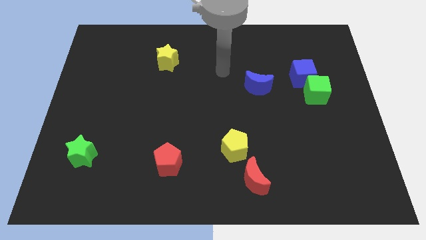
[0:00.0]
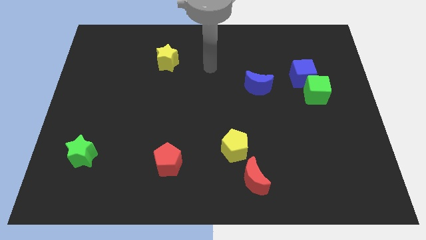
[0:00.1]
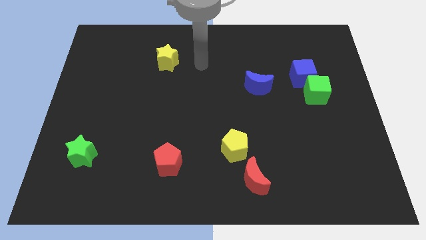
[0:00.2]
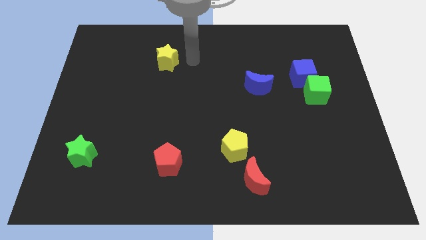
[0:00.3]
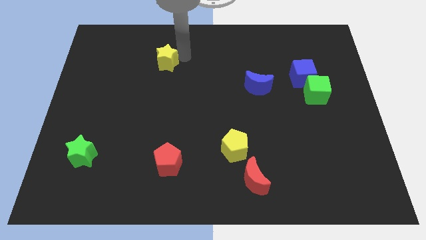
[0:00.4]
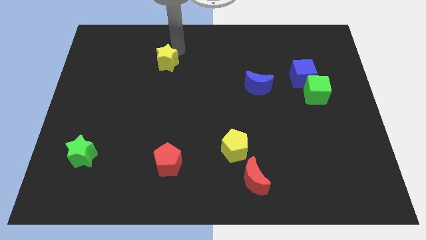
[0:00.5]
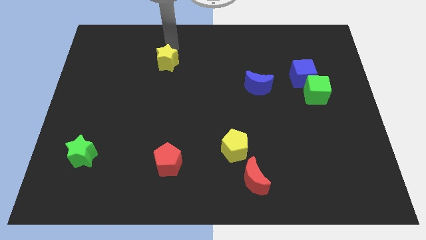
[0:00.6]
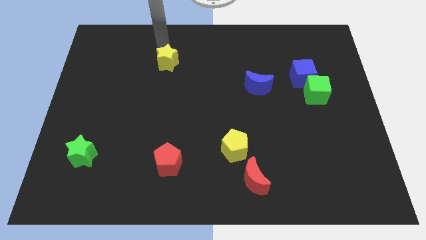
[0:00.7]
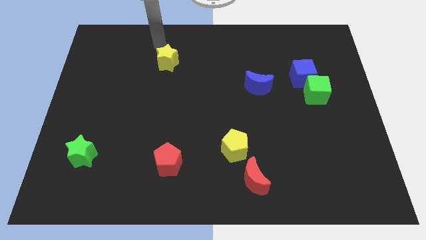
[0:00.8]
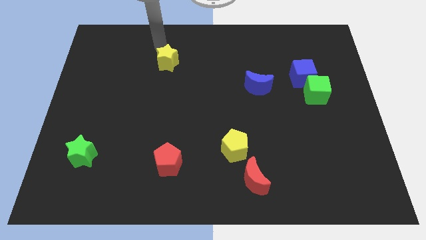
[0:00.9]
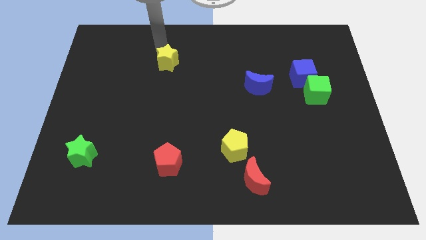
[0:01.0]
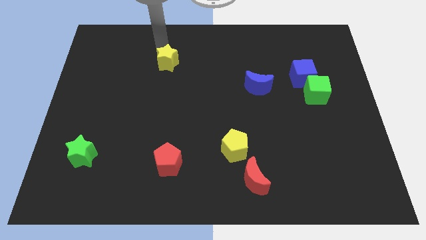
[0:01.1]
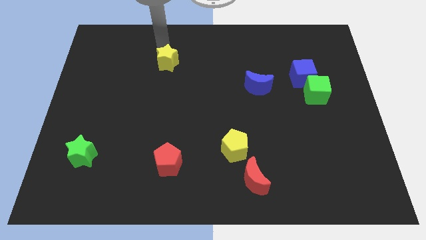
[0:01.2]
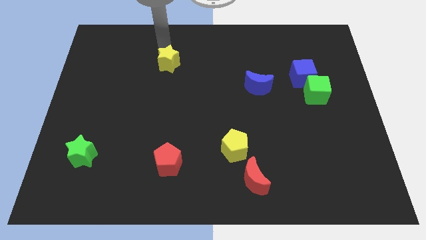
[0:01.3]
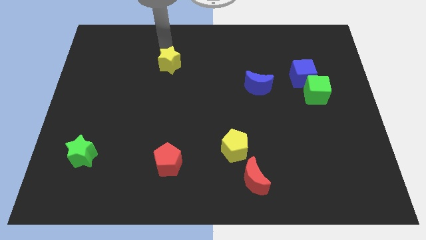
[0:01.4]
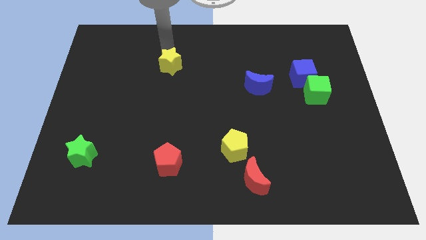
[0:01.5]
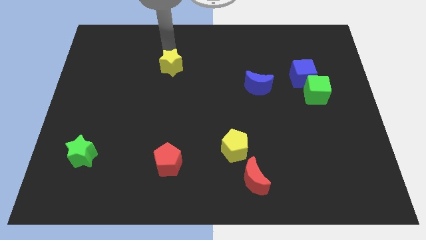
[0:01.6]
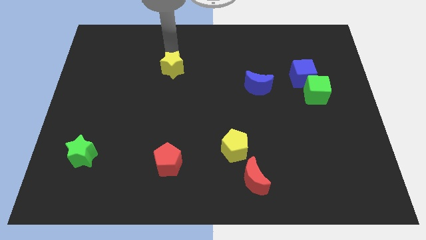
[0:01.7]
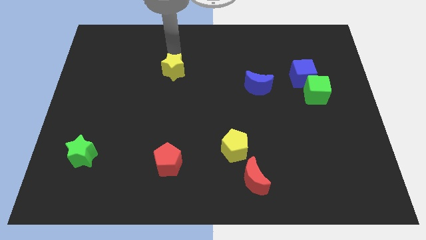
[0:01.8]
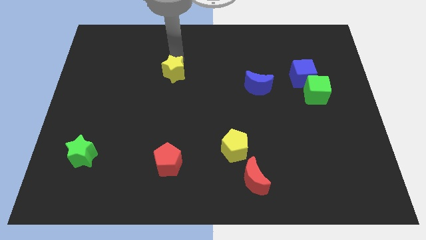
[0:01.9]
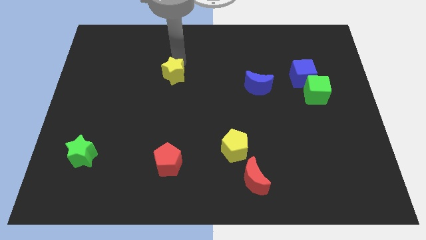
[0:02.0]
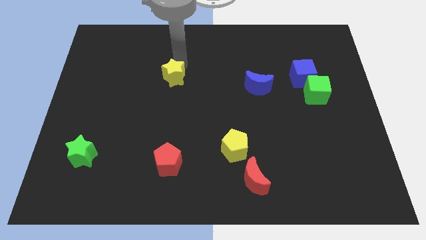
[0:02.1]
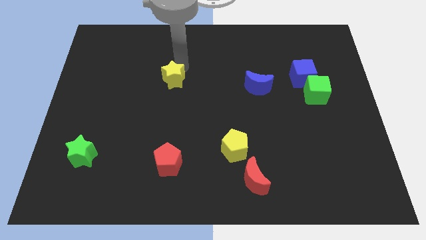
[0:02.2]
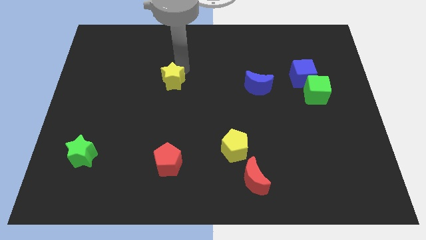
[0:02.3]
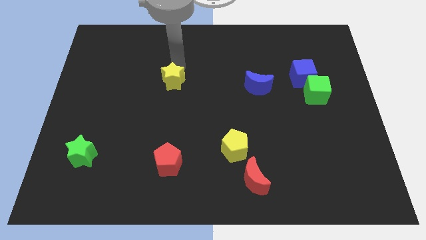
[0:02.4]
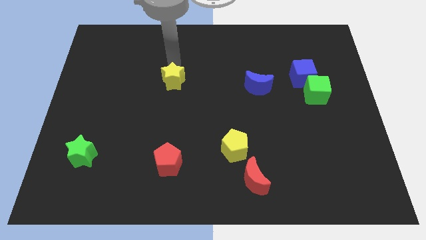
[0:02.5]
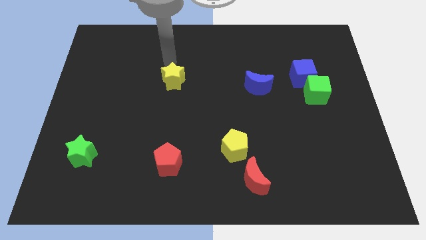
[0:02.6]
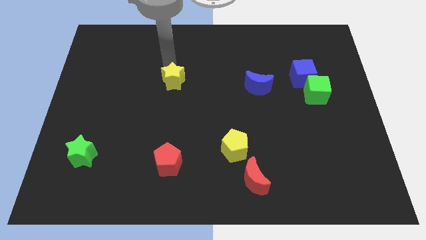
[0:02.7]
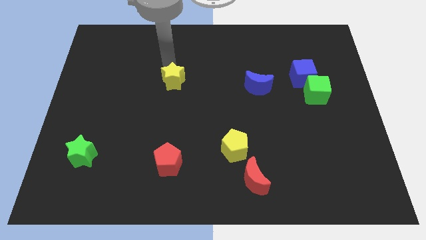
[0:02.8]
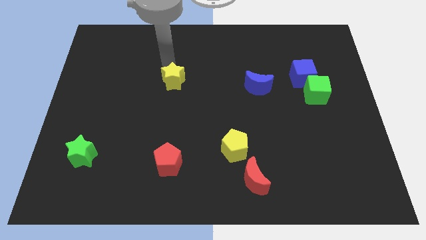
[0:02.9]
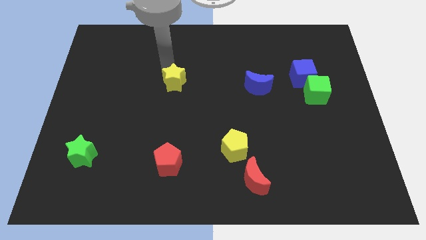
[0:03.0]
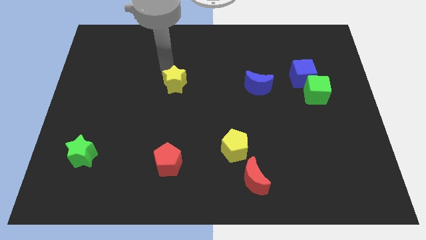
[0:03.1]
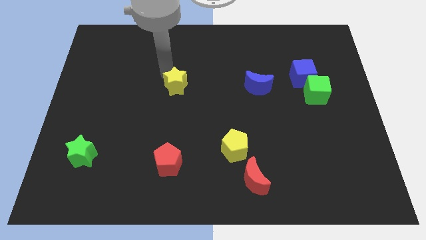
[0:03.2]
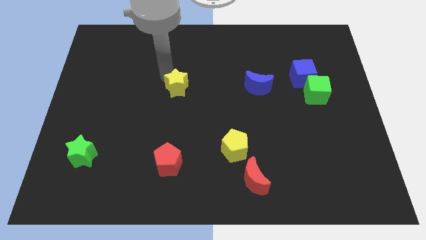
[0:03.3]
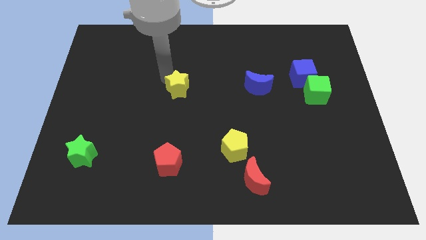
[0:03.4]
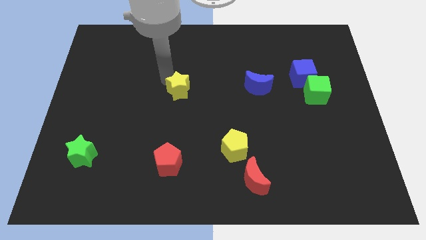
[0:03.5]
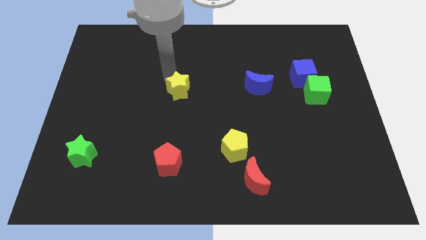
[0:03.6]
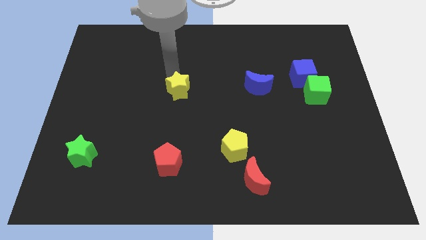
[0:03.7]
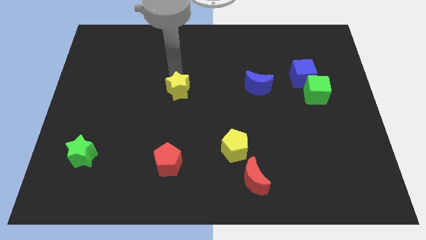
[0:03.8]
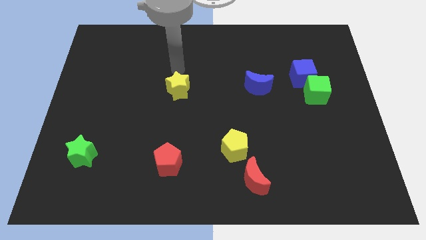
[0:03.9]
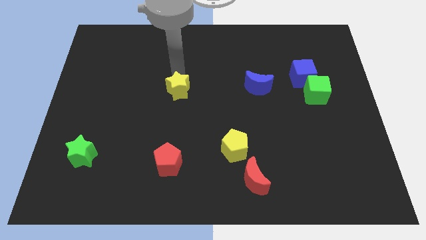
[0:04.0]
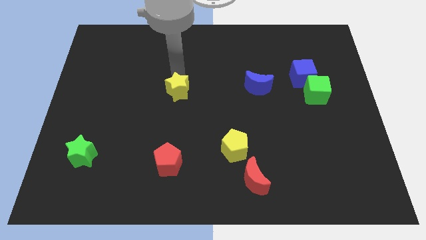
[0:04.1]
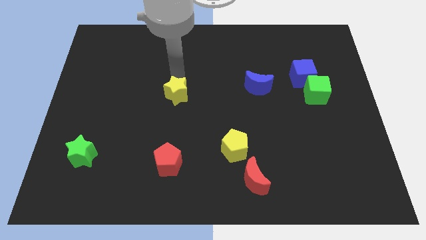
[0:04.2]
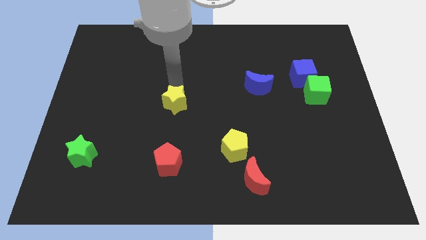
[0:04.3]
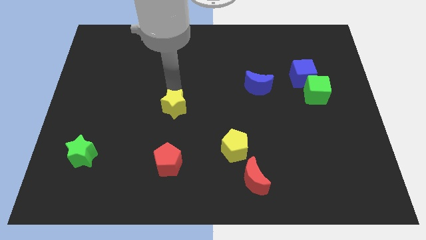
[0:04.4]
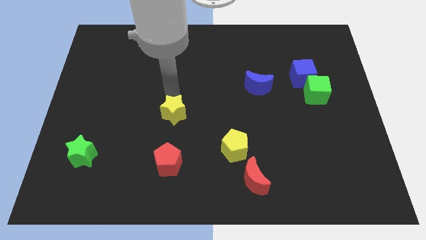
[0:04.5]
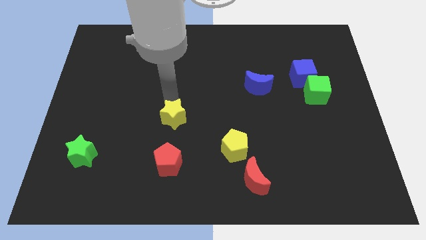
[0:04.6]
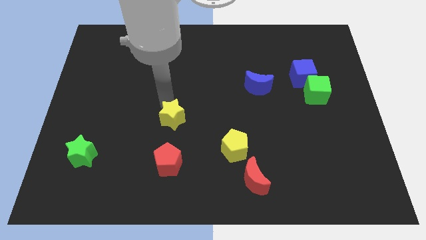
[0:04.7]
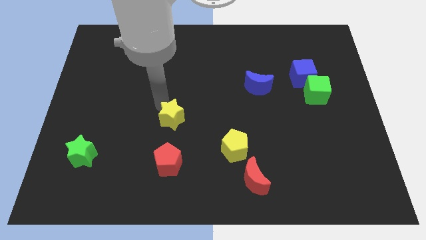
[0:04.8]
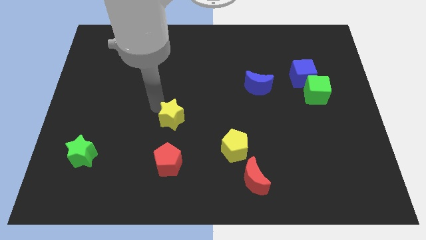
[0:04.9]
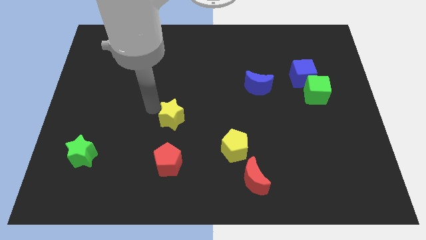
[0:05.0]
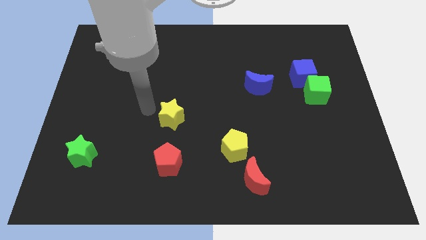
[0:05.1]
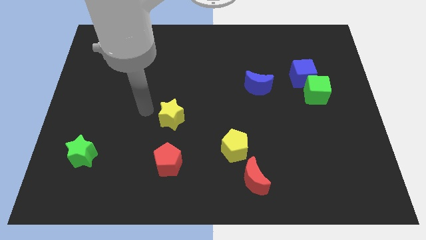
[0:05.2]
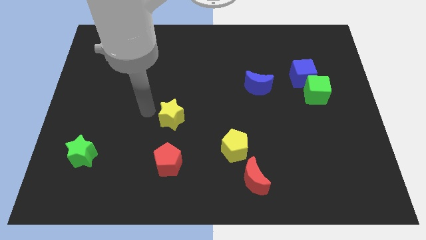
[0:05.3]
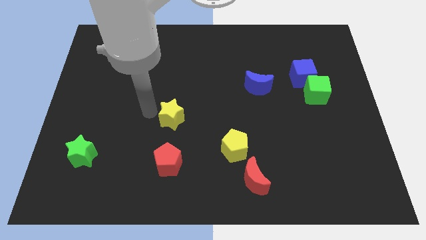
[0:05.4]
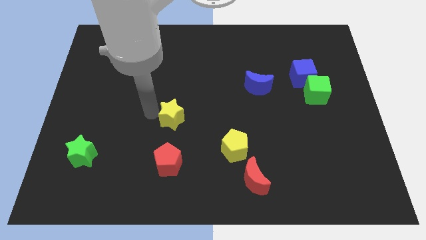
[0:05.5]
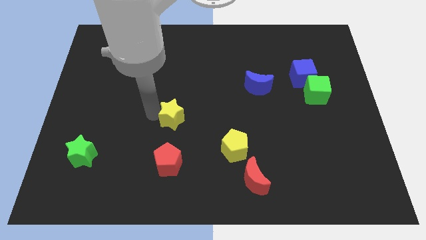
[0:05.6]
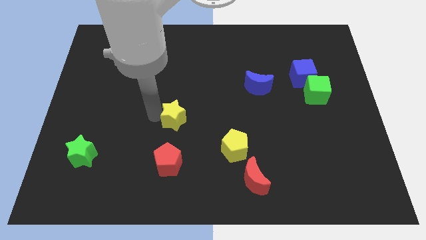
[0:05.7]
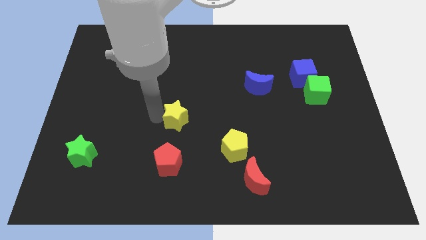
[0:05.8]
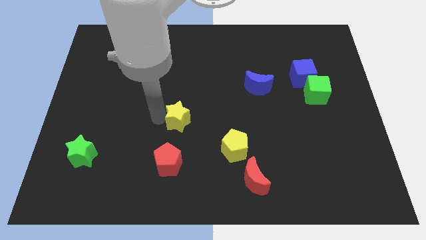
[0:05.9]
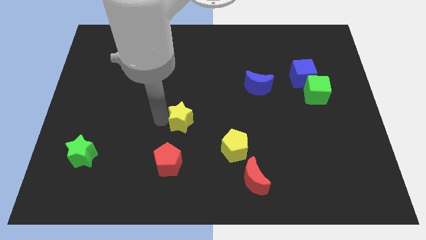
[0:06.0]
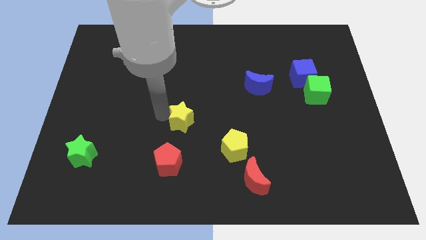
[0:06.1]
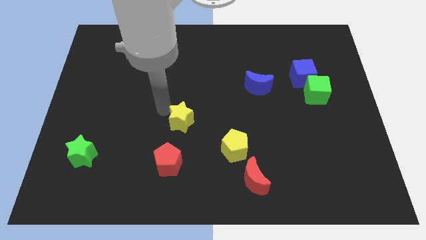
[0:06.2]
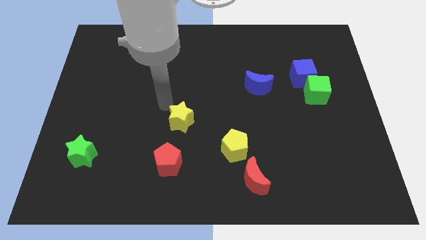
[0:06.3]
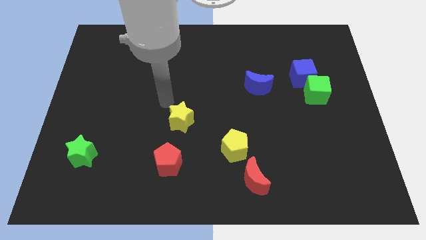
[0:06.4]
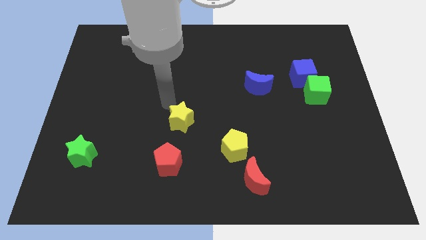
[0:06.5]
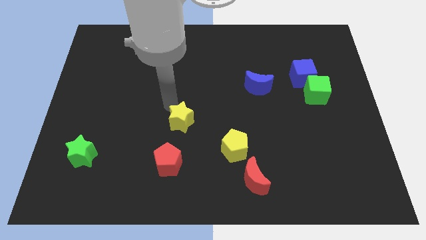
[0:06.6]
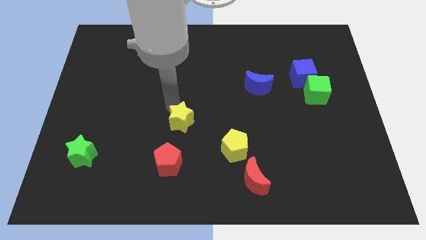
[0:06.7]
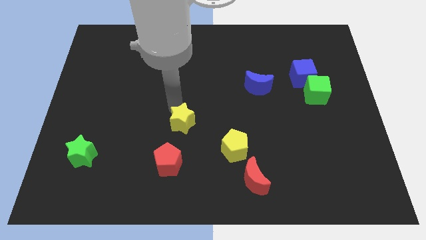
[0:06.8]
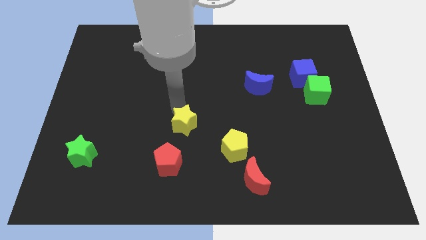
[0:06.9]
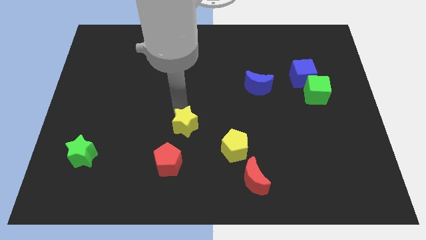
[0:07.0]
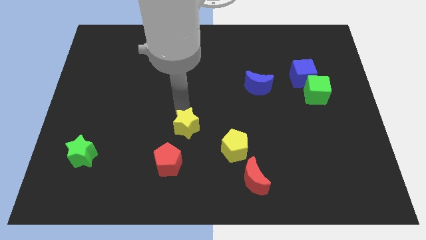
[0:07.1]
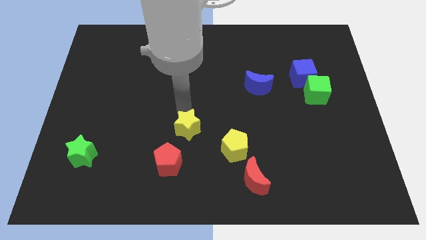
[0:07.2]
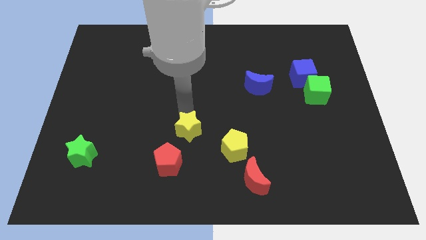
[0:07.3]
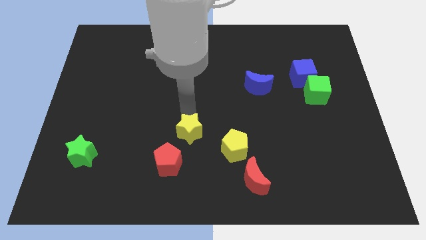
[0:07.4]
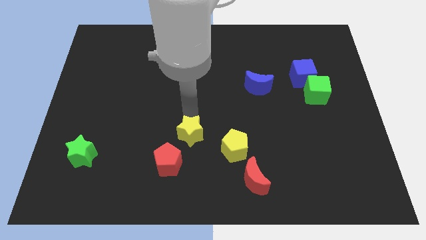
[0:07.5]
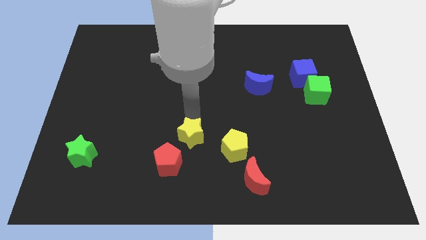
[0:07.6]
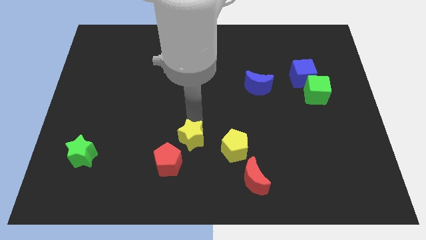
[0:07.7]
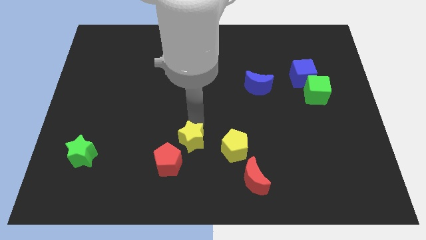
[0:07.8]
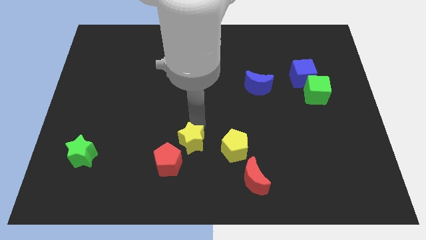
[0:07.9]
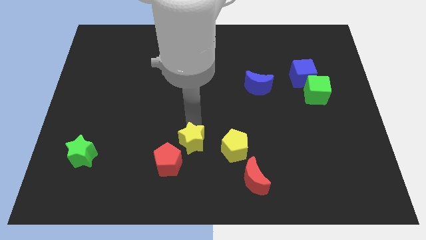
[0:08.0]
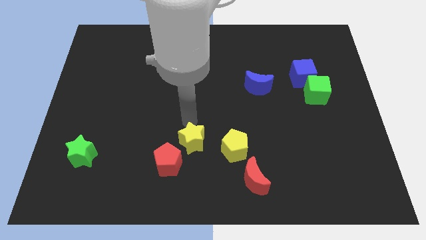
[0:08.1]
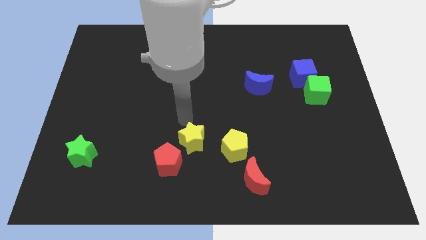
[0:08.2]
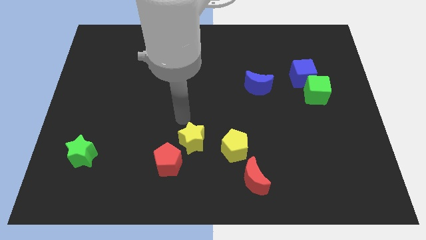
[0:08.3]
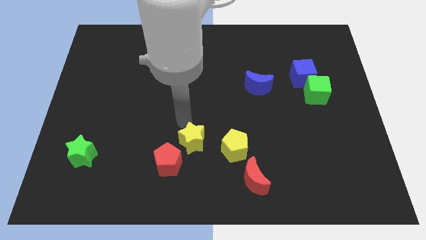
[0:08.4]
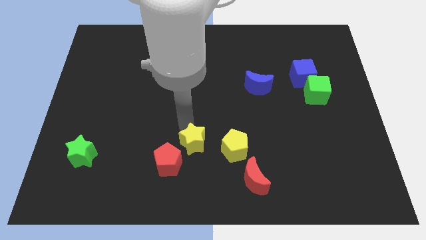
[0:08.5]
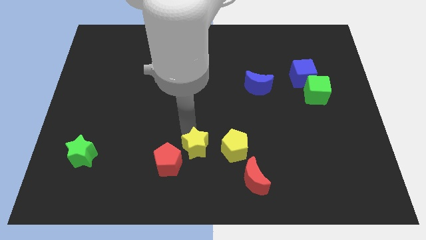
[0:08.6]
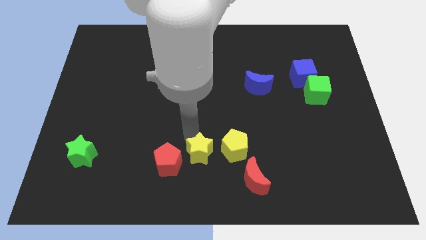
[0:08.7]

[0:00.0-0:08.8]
push the yellow star diagonally down and to the left of the yellow pentagon
